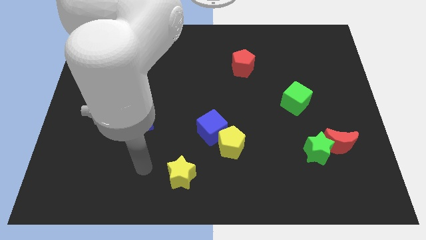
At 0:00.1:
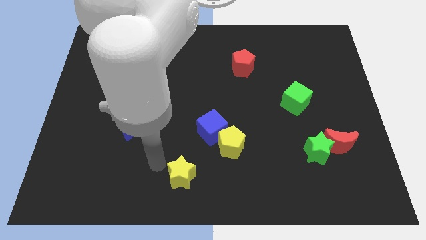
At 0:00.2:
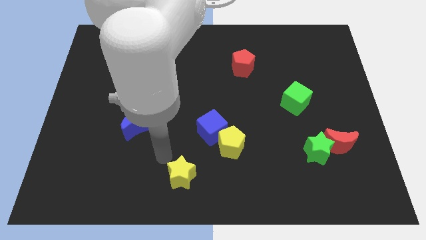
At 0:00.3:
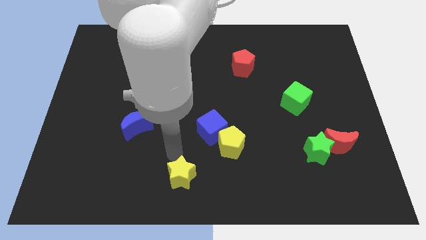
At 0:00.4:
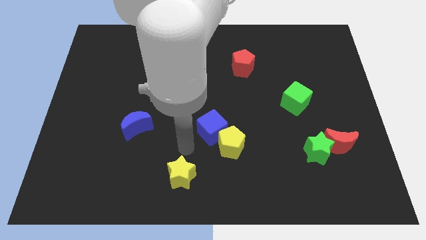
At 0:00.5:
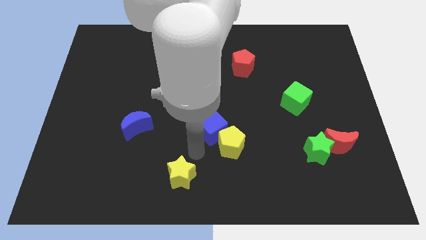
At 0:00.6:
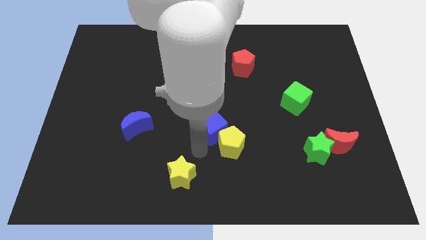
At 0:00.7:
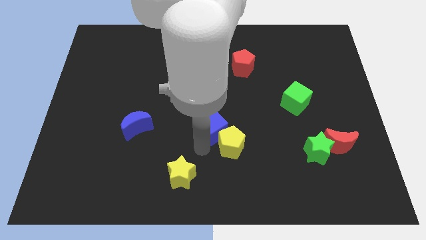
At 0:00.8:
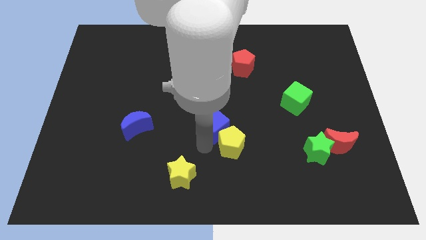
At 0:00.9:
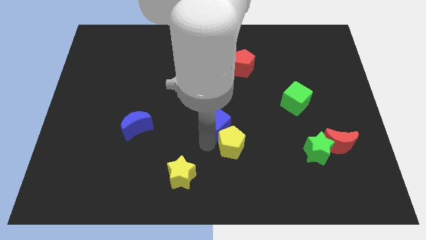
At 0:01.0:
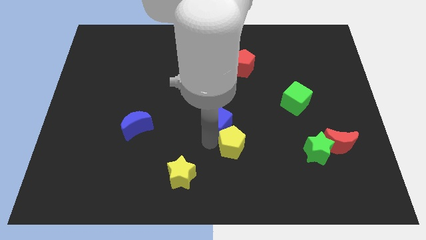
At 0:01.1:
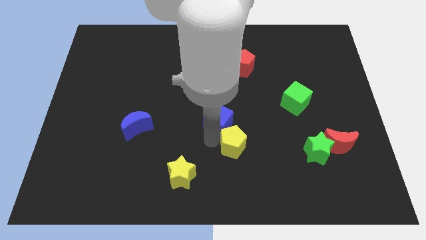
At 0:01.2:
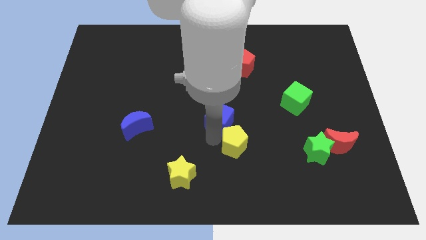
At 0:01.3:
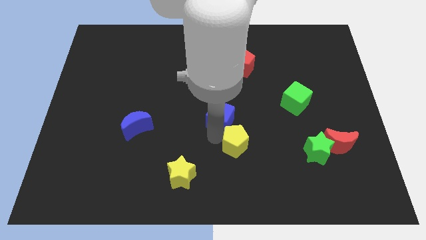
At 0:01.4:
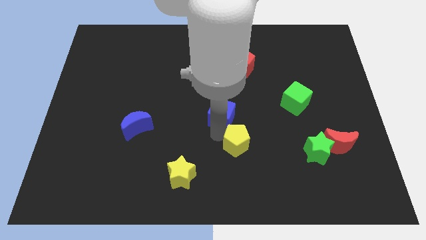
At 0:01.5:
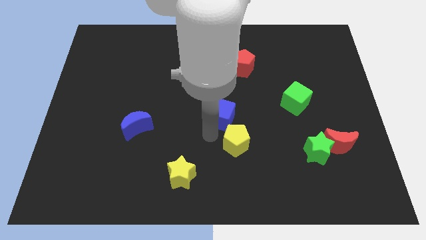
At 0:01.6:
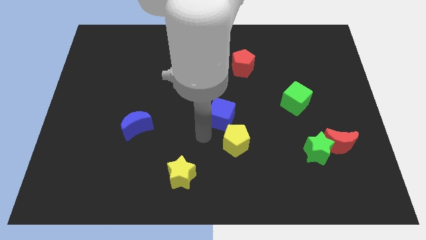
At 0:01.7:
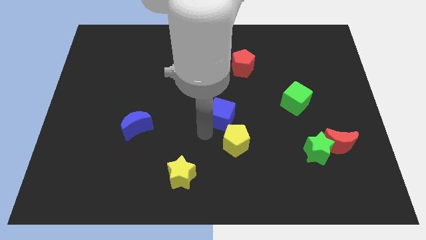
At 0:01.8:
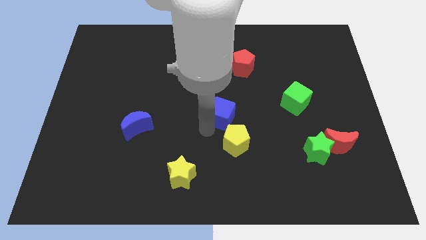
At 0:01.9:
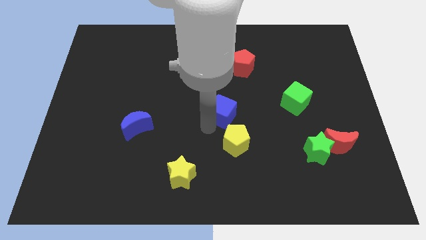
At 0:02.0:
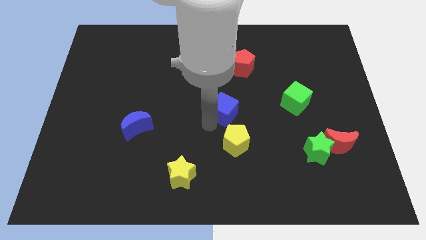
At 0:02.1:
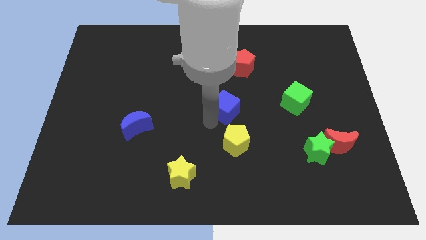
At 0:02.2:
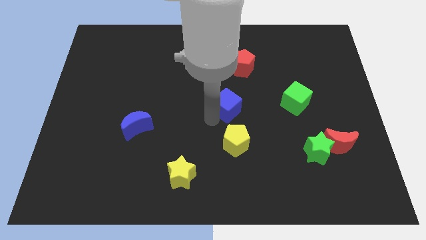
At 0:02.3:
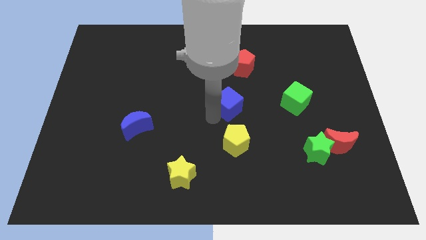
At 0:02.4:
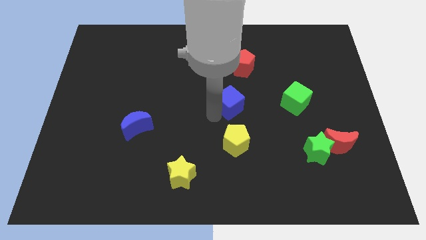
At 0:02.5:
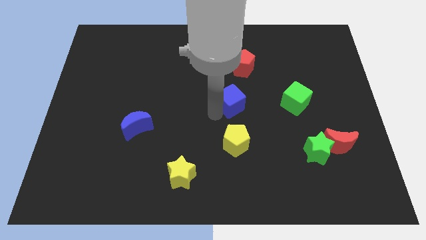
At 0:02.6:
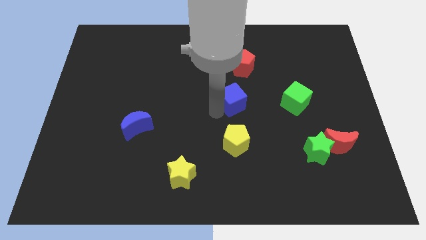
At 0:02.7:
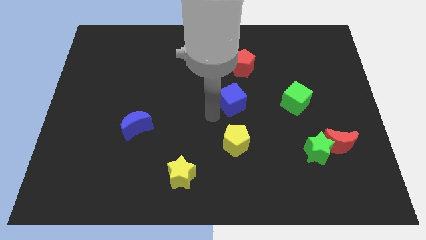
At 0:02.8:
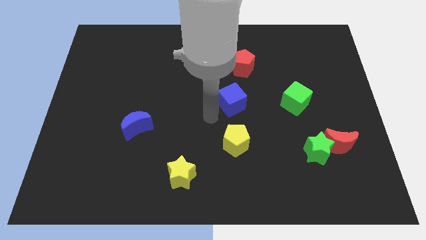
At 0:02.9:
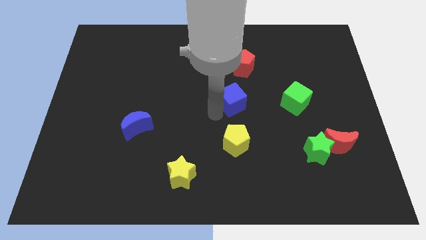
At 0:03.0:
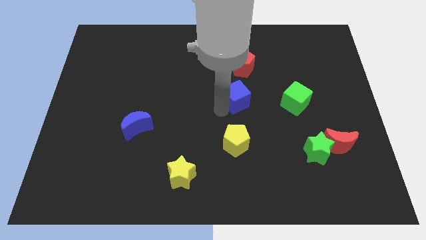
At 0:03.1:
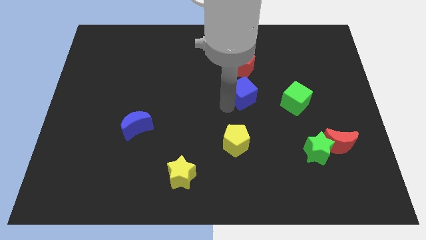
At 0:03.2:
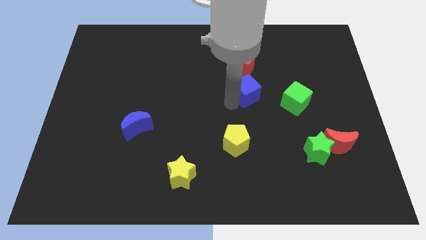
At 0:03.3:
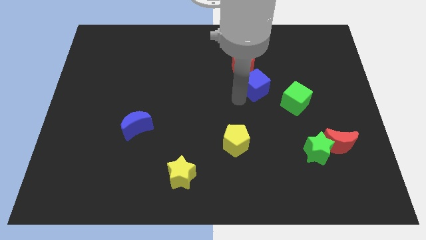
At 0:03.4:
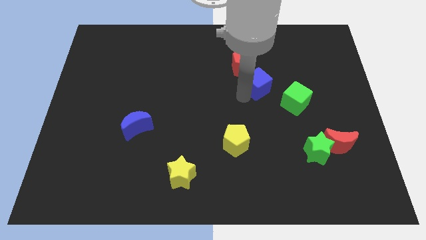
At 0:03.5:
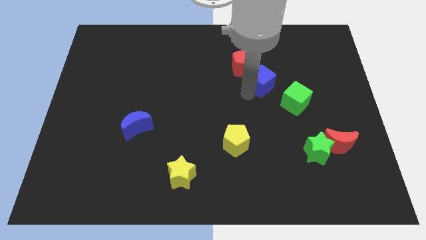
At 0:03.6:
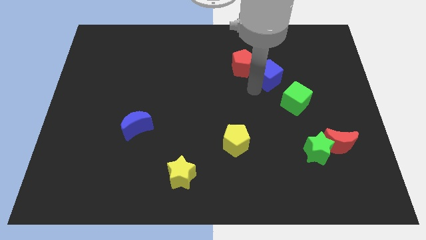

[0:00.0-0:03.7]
move the blue cube upwards and right diagonally

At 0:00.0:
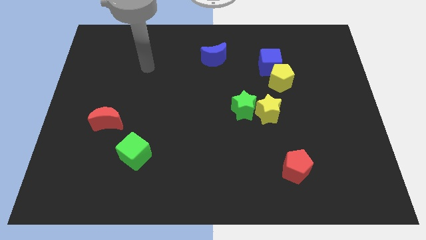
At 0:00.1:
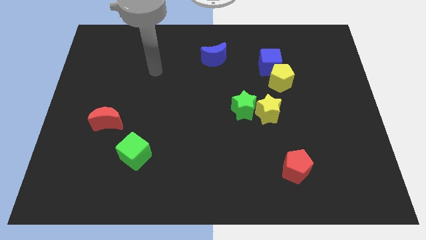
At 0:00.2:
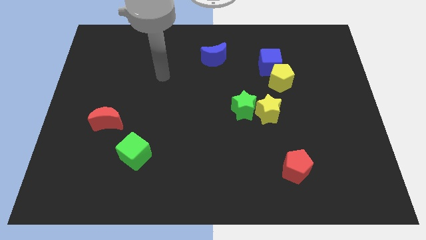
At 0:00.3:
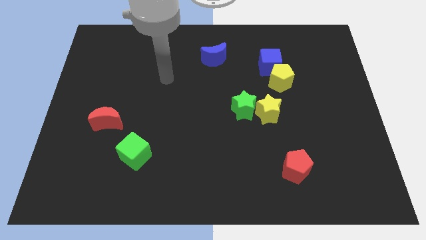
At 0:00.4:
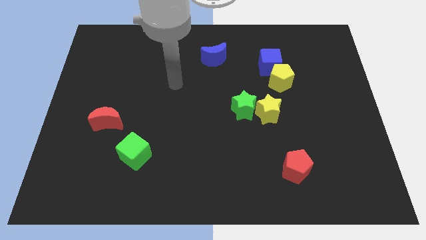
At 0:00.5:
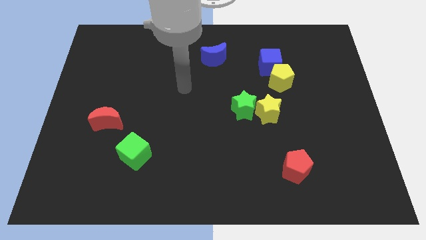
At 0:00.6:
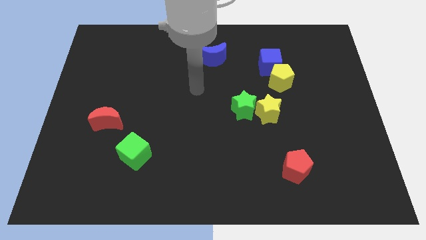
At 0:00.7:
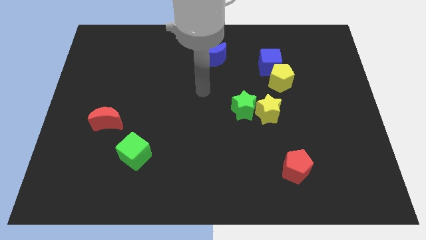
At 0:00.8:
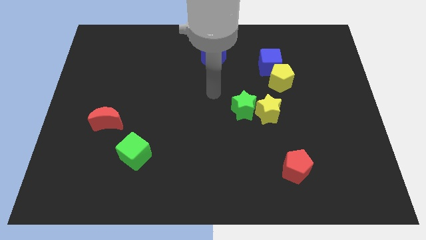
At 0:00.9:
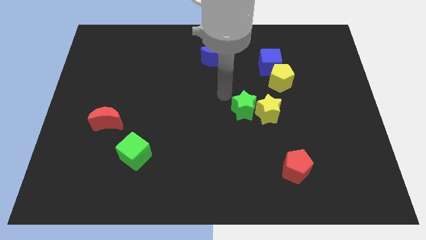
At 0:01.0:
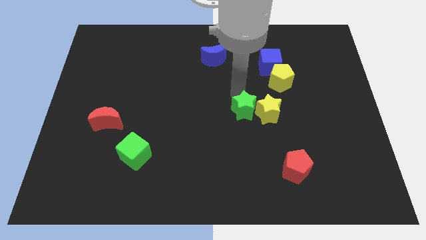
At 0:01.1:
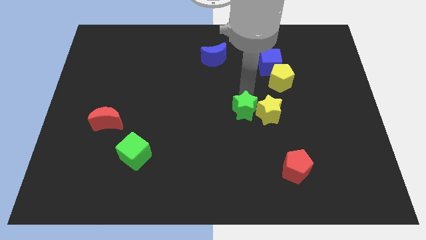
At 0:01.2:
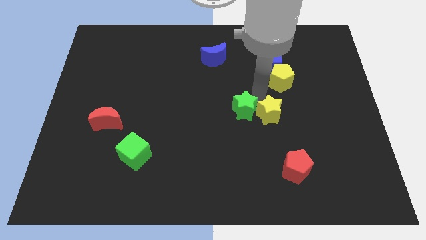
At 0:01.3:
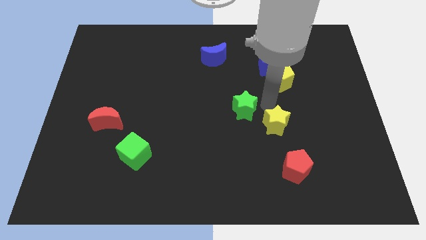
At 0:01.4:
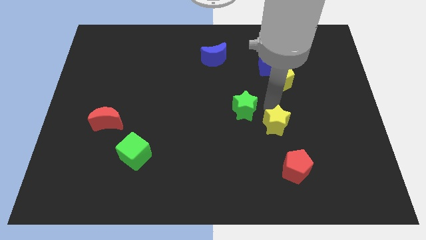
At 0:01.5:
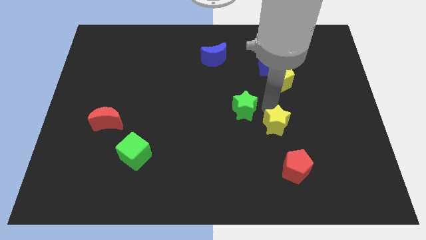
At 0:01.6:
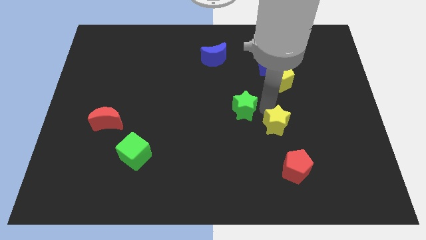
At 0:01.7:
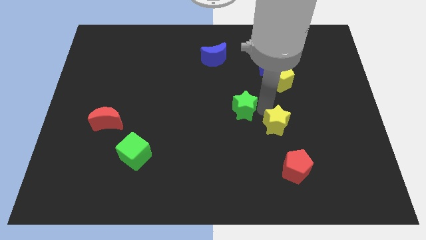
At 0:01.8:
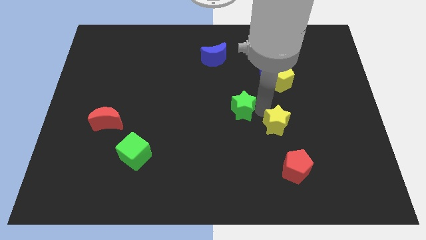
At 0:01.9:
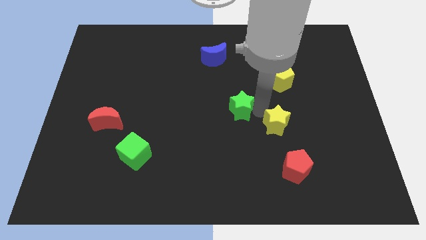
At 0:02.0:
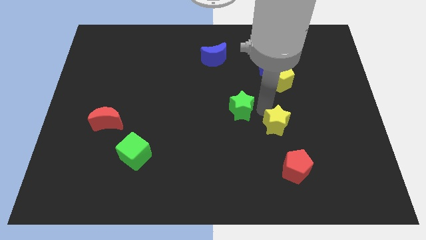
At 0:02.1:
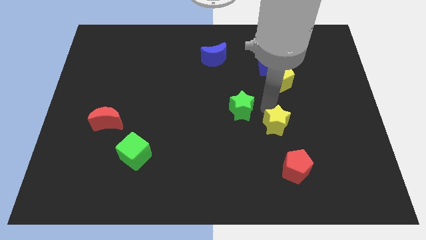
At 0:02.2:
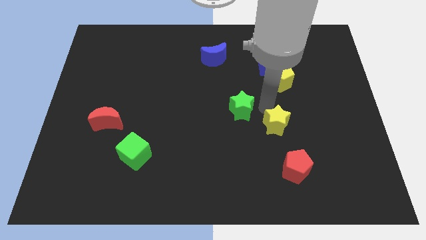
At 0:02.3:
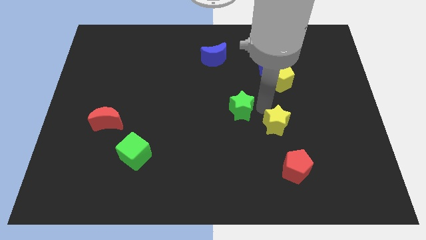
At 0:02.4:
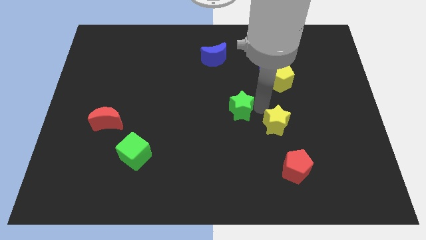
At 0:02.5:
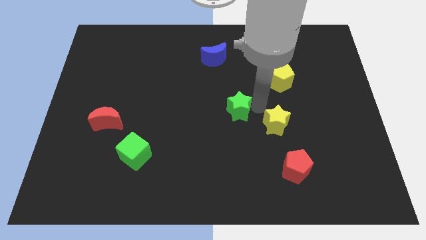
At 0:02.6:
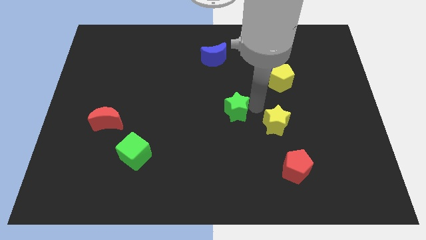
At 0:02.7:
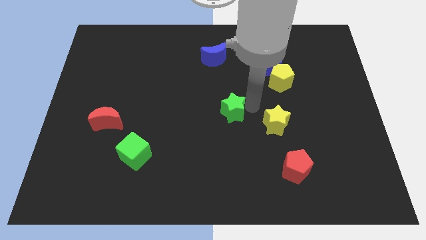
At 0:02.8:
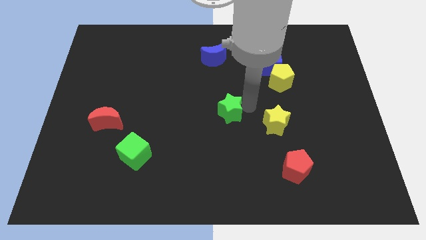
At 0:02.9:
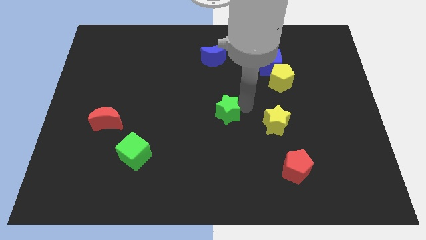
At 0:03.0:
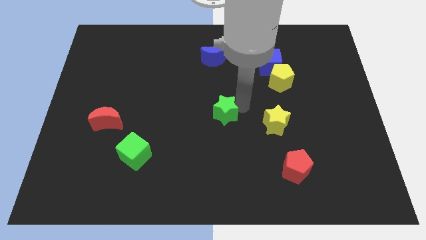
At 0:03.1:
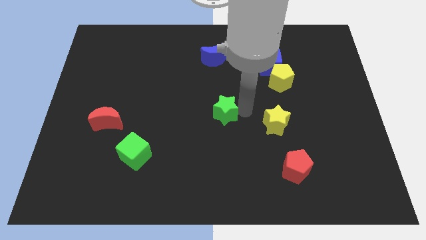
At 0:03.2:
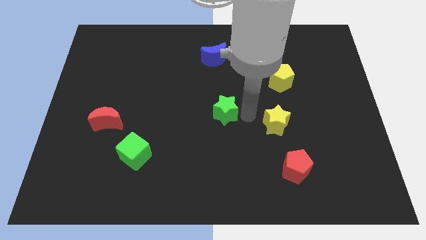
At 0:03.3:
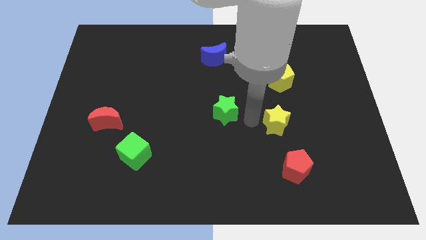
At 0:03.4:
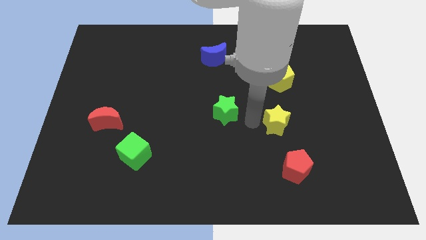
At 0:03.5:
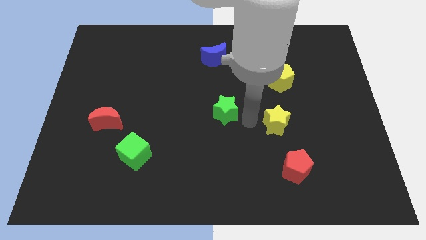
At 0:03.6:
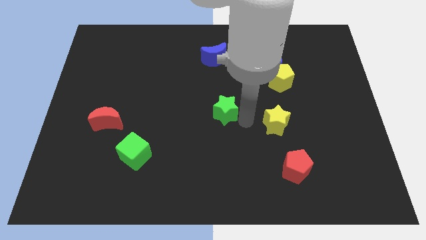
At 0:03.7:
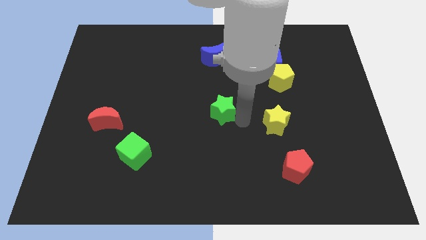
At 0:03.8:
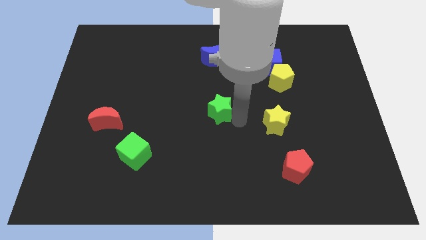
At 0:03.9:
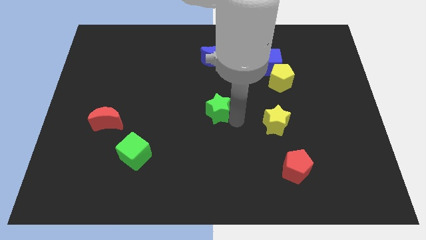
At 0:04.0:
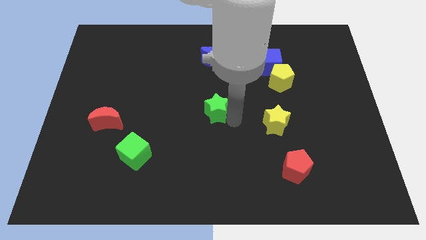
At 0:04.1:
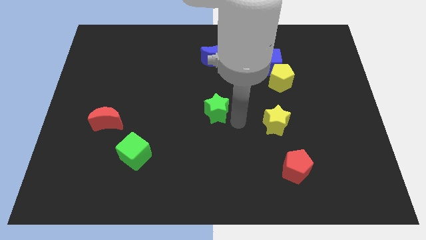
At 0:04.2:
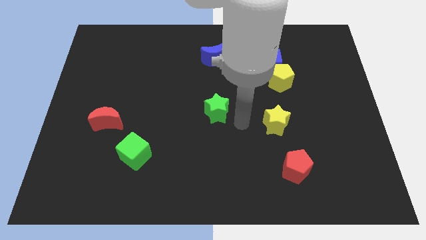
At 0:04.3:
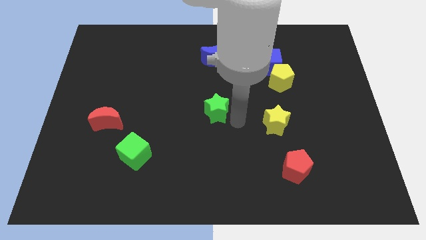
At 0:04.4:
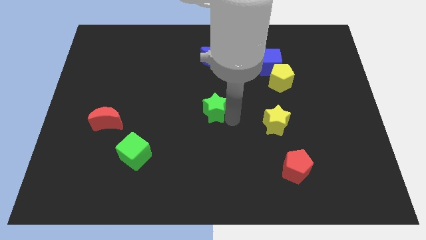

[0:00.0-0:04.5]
slightly move the green star left
